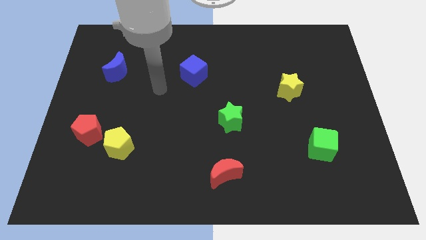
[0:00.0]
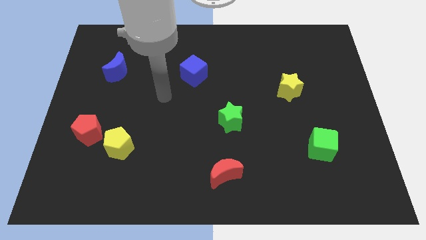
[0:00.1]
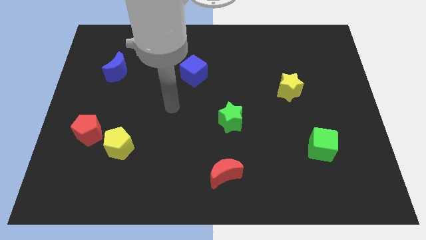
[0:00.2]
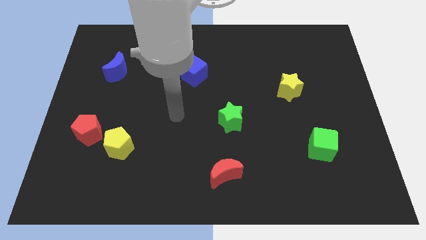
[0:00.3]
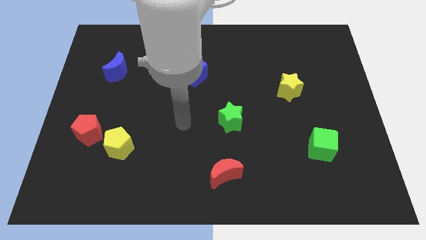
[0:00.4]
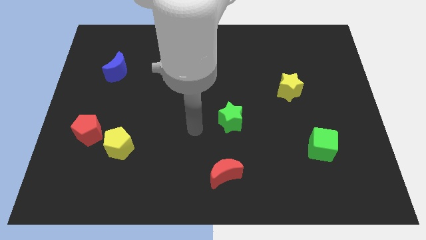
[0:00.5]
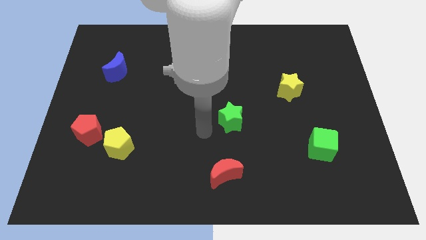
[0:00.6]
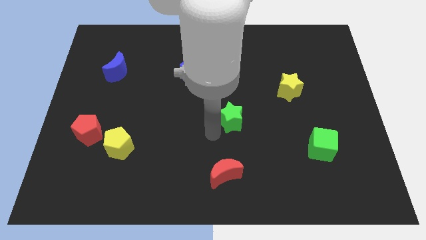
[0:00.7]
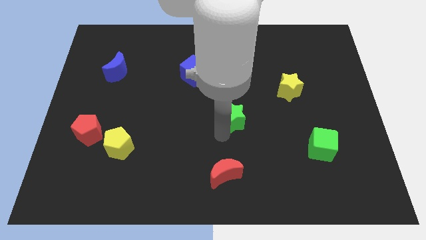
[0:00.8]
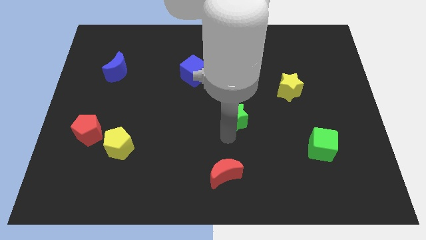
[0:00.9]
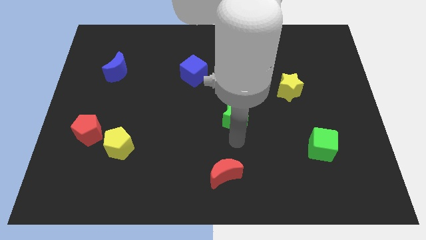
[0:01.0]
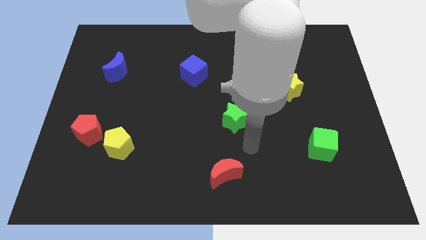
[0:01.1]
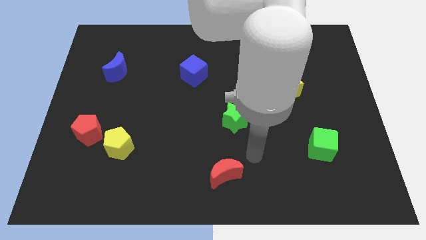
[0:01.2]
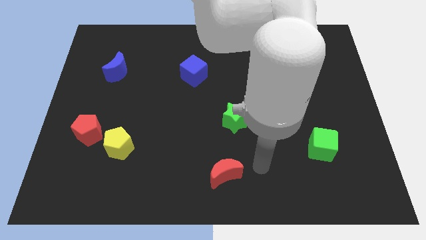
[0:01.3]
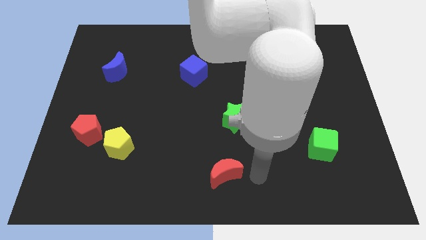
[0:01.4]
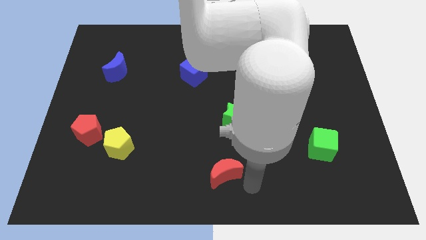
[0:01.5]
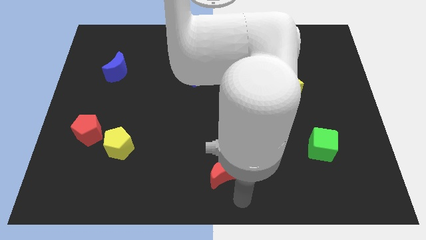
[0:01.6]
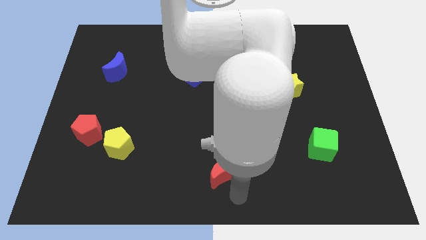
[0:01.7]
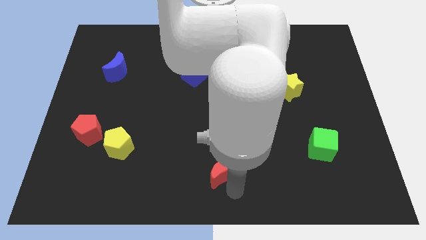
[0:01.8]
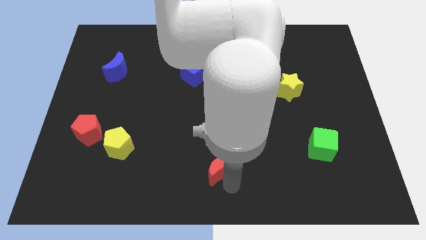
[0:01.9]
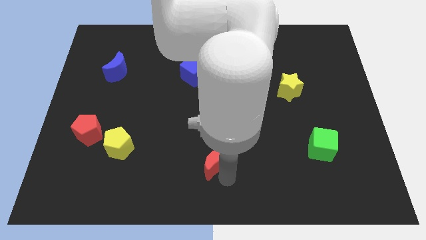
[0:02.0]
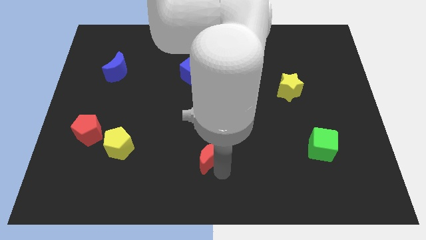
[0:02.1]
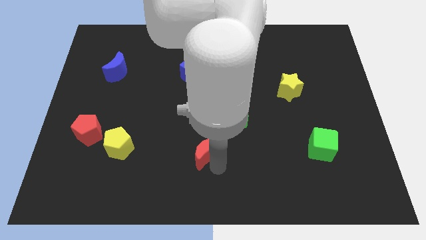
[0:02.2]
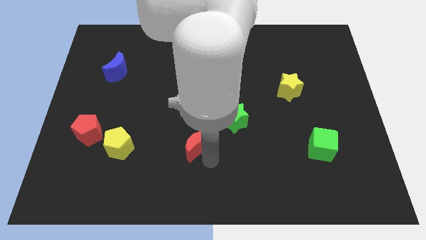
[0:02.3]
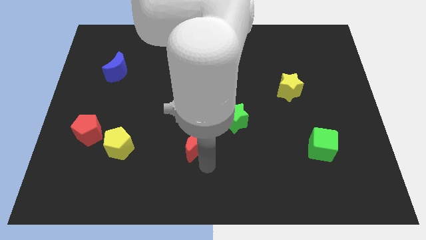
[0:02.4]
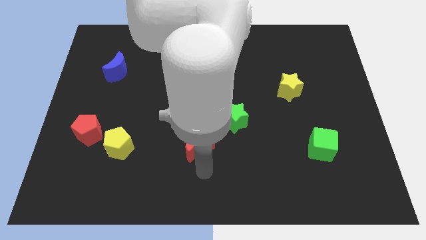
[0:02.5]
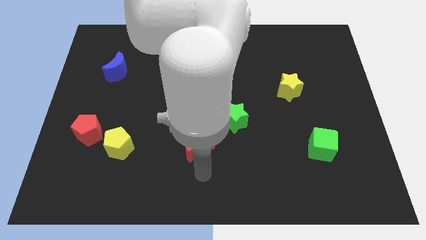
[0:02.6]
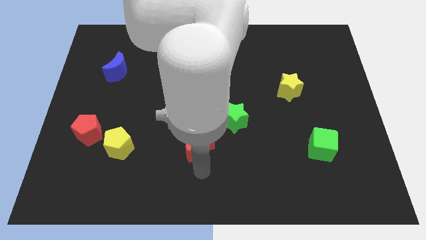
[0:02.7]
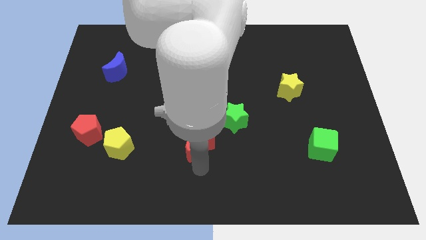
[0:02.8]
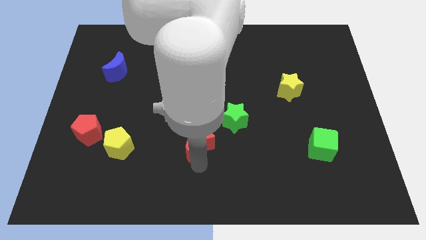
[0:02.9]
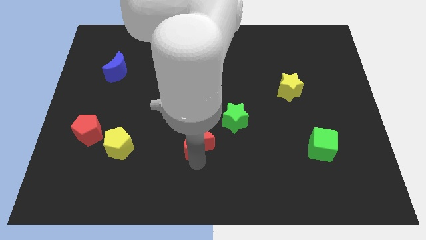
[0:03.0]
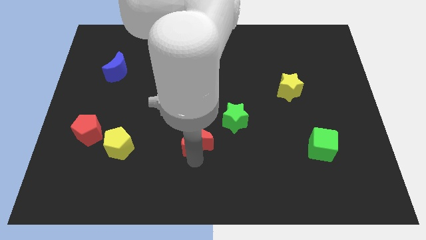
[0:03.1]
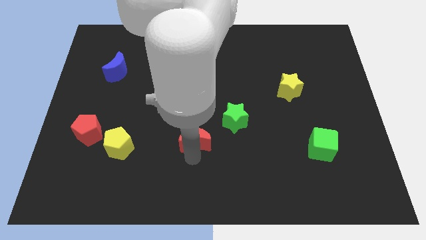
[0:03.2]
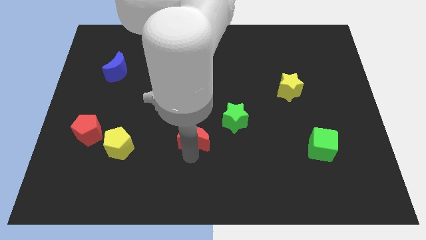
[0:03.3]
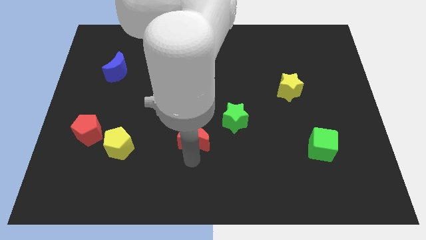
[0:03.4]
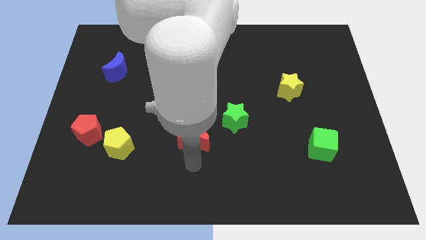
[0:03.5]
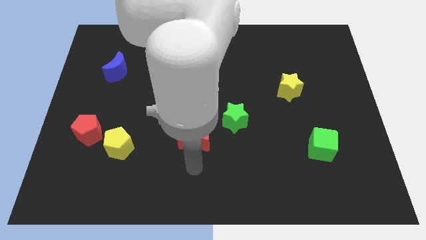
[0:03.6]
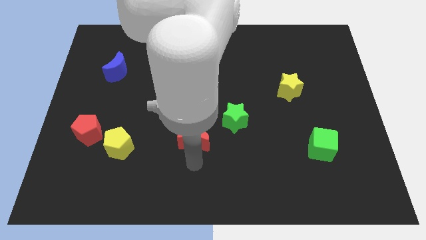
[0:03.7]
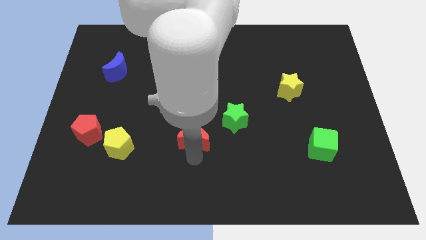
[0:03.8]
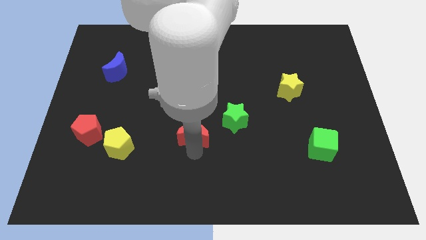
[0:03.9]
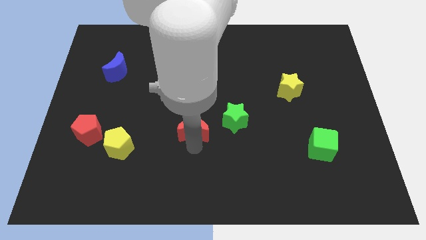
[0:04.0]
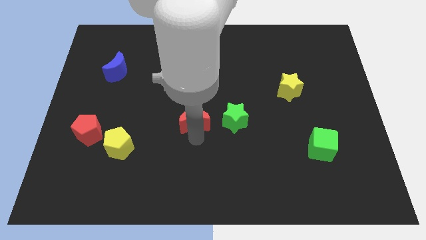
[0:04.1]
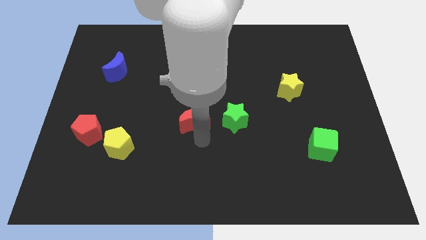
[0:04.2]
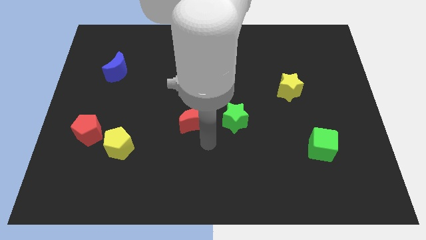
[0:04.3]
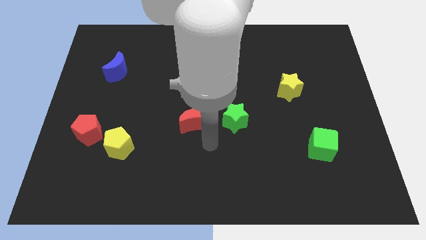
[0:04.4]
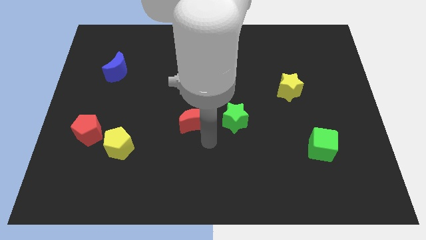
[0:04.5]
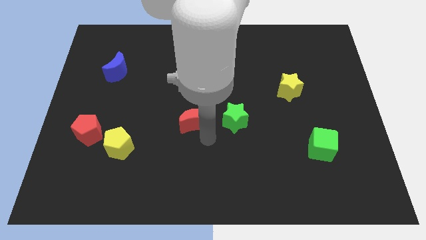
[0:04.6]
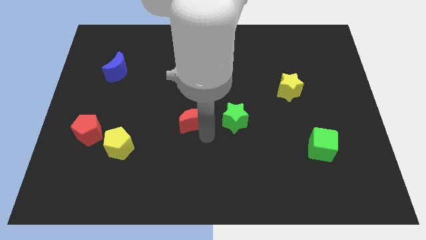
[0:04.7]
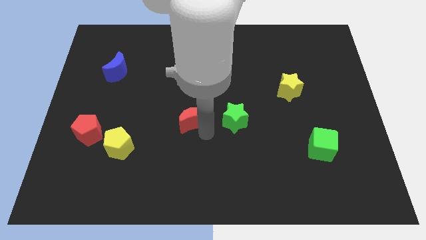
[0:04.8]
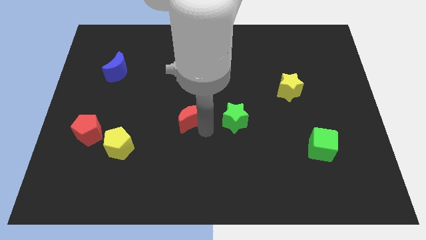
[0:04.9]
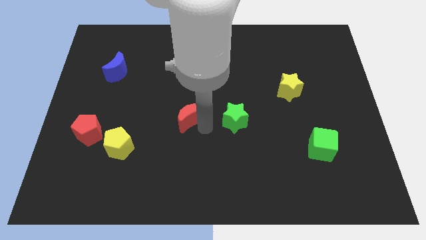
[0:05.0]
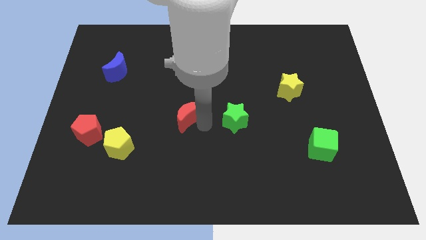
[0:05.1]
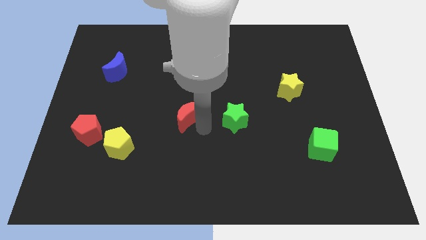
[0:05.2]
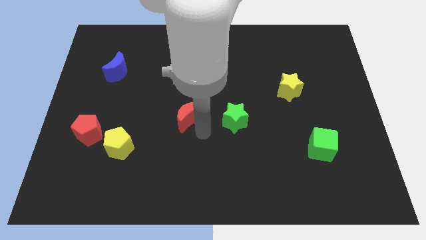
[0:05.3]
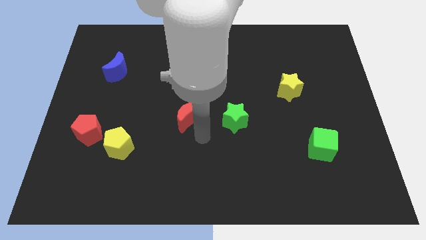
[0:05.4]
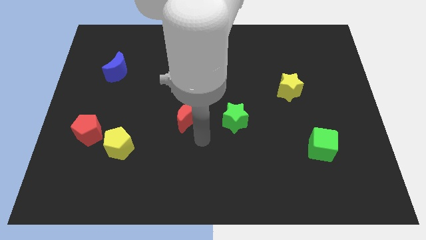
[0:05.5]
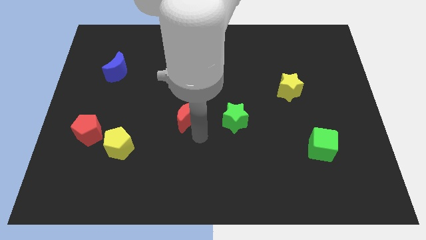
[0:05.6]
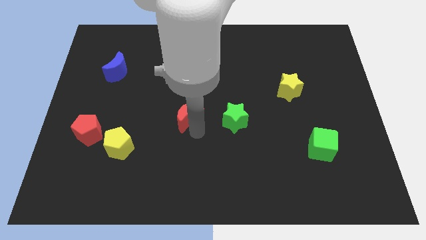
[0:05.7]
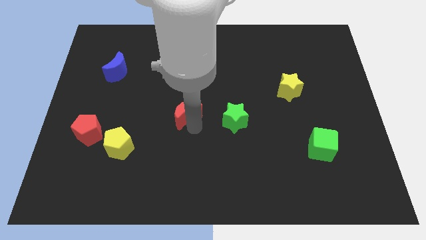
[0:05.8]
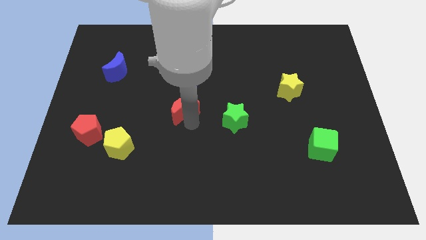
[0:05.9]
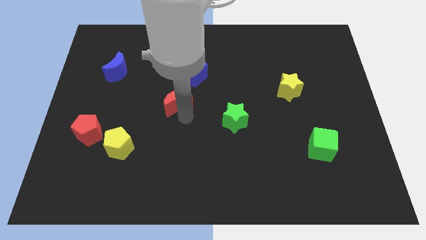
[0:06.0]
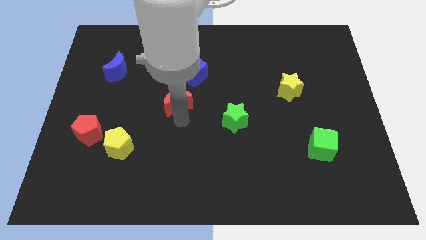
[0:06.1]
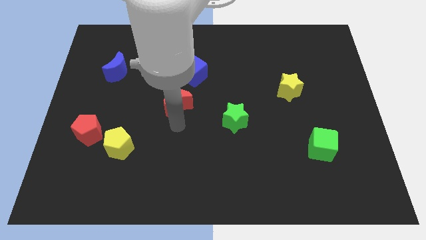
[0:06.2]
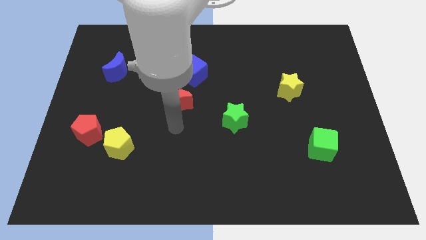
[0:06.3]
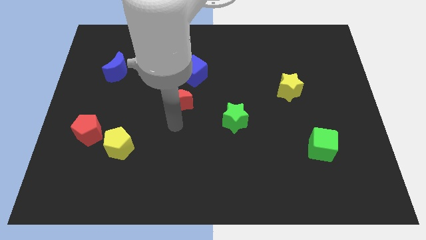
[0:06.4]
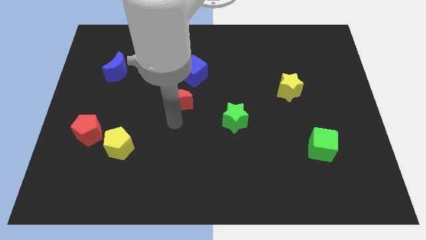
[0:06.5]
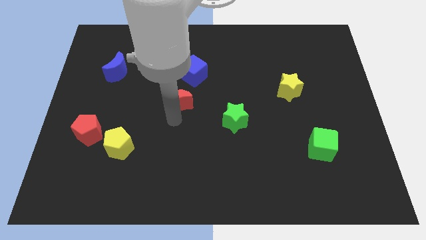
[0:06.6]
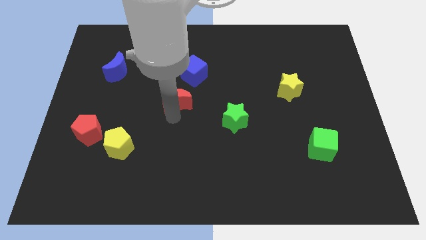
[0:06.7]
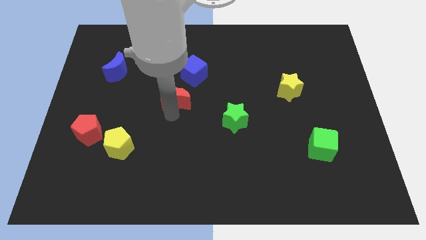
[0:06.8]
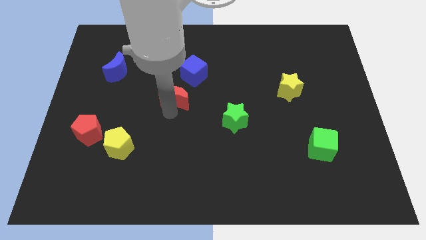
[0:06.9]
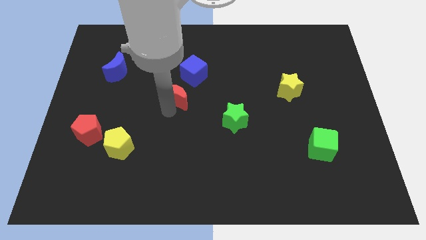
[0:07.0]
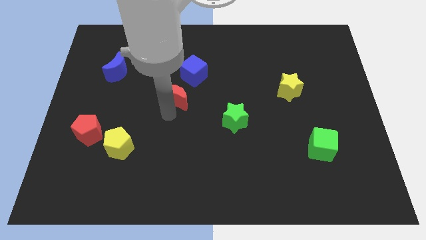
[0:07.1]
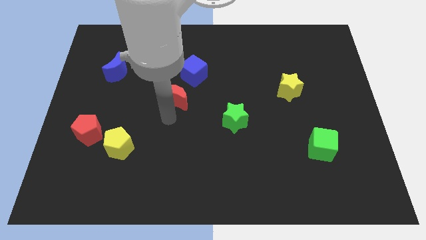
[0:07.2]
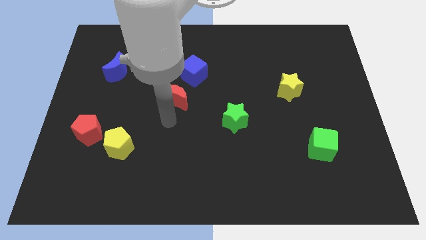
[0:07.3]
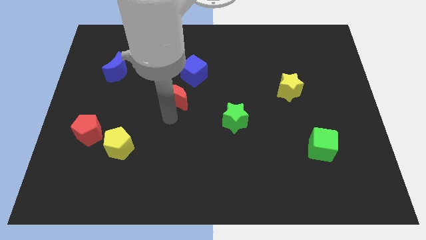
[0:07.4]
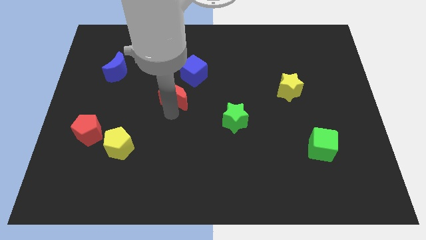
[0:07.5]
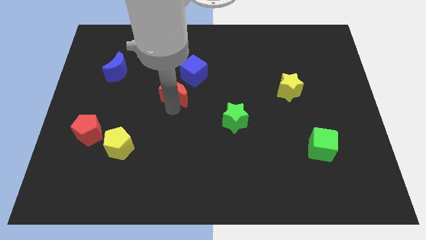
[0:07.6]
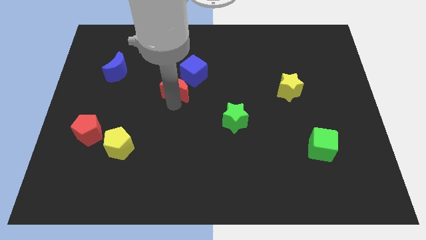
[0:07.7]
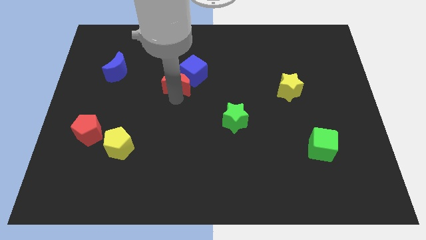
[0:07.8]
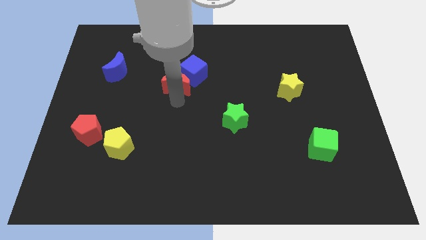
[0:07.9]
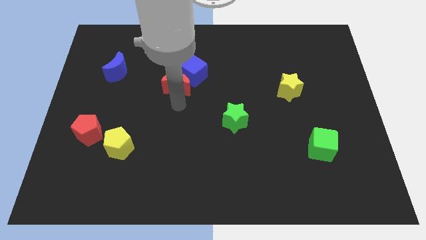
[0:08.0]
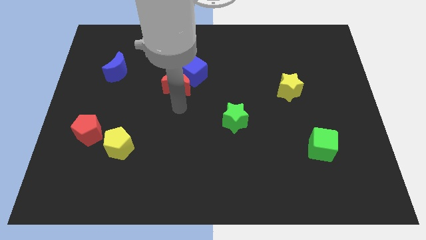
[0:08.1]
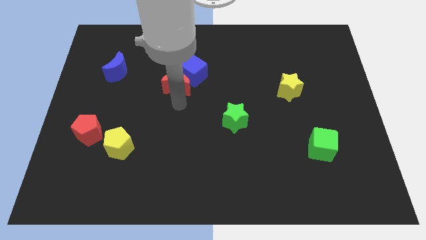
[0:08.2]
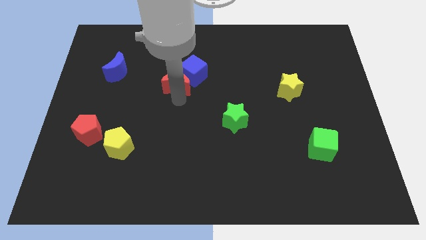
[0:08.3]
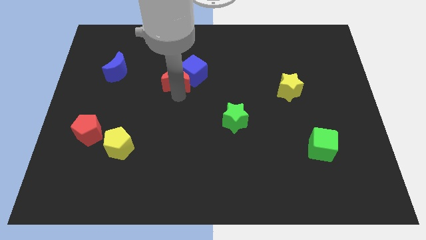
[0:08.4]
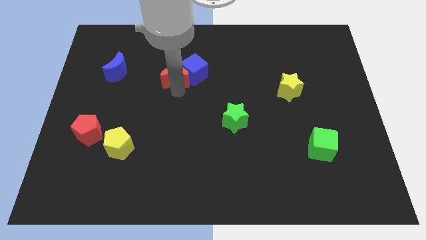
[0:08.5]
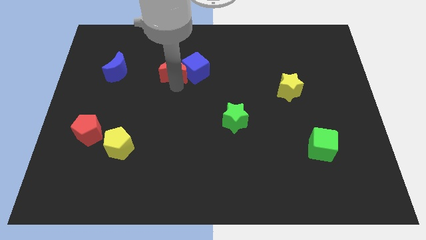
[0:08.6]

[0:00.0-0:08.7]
slide the red moon to the top left side of the blue cube
